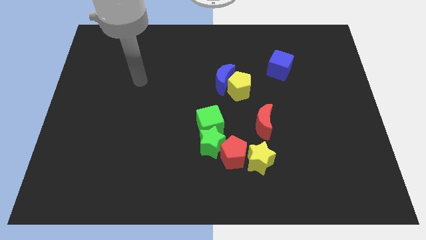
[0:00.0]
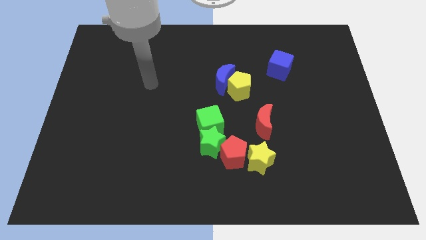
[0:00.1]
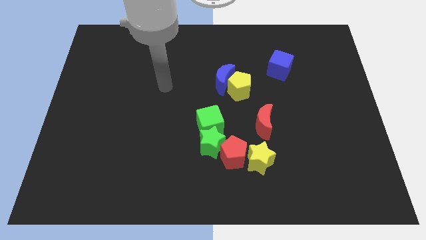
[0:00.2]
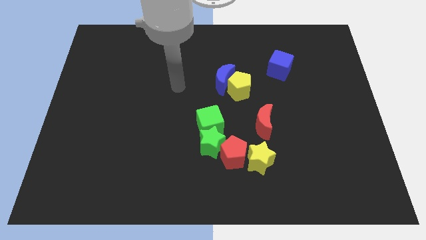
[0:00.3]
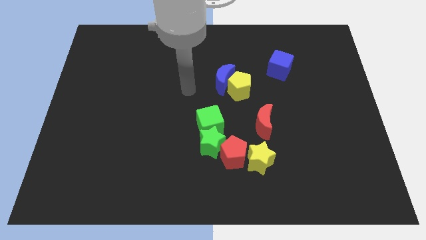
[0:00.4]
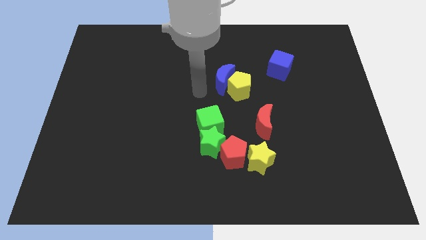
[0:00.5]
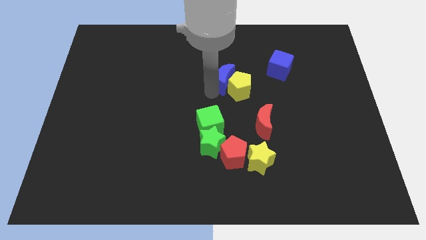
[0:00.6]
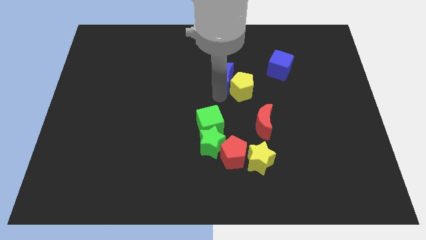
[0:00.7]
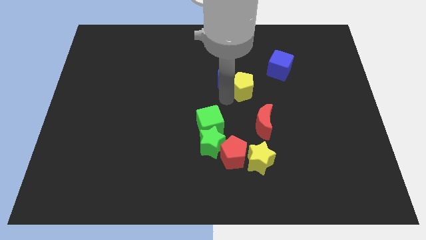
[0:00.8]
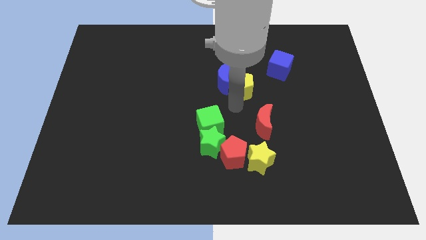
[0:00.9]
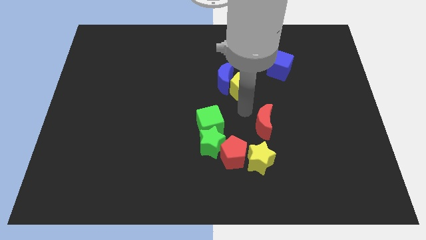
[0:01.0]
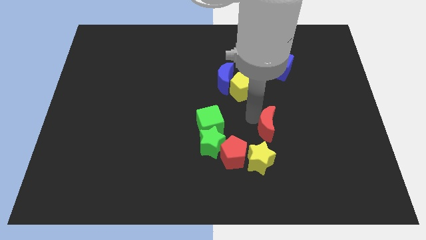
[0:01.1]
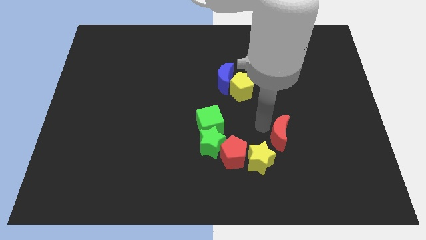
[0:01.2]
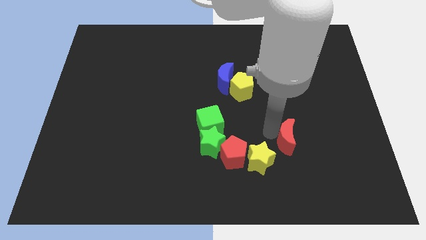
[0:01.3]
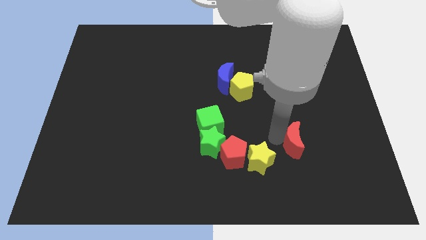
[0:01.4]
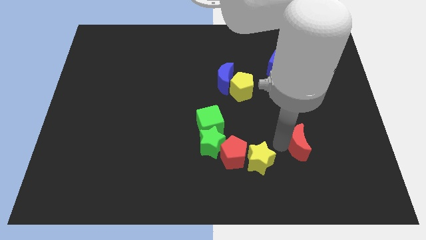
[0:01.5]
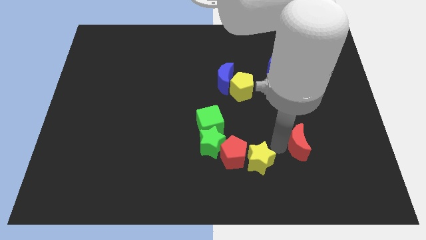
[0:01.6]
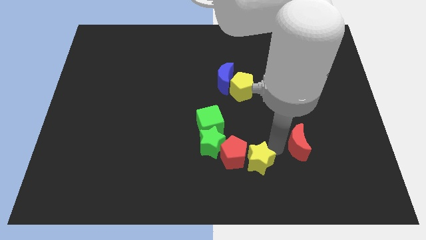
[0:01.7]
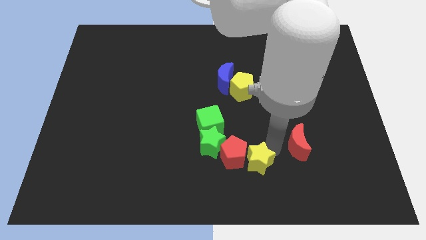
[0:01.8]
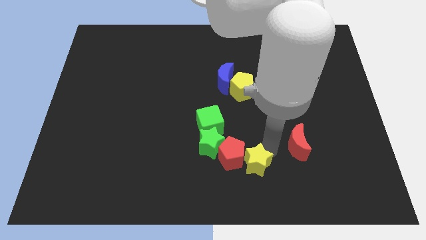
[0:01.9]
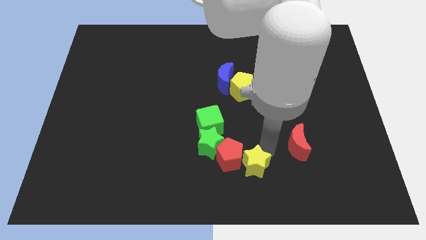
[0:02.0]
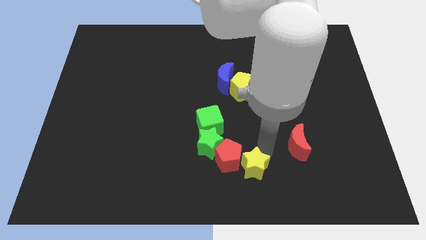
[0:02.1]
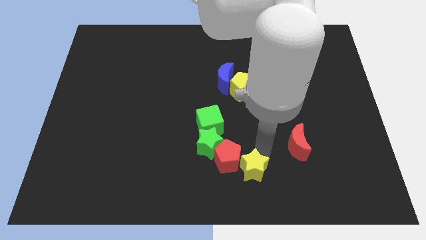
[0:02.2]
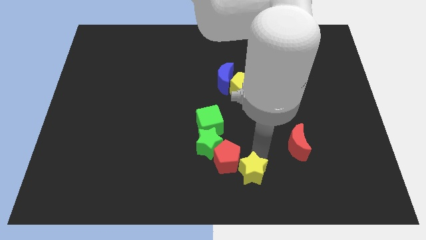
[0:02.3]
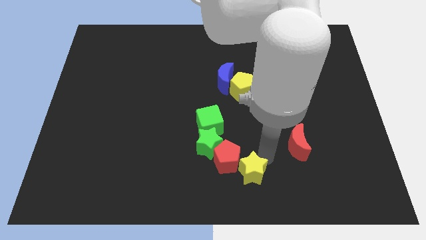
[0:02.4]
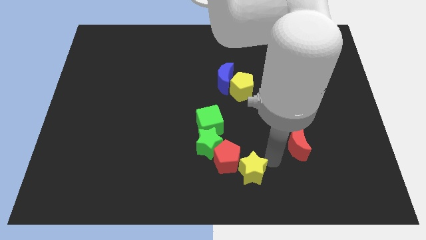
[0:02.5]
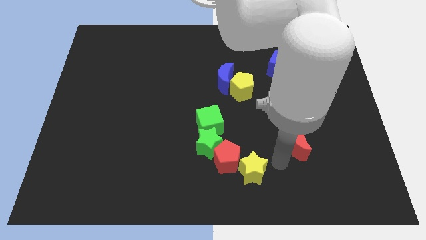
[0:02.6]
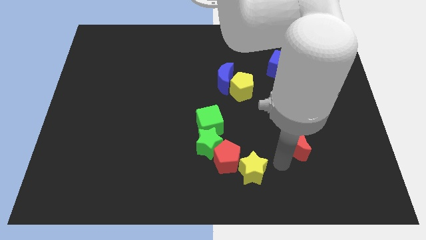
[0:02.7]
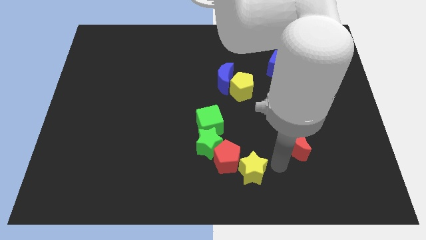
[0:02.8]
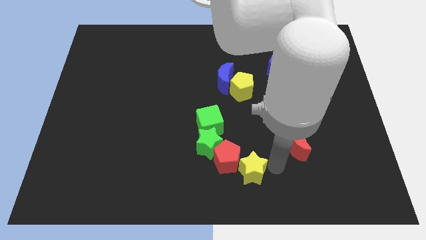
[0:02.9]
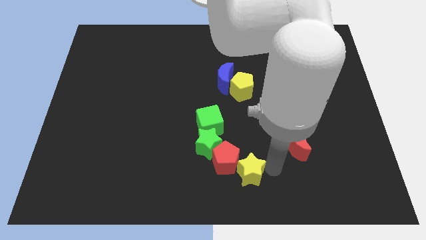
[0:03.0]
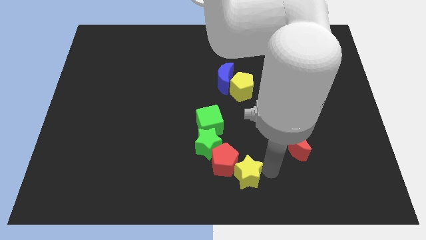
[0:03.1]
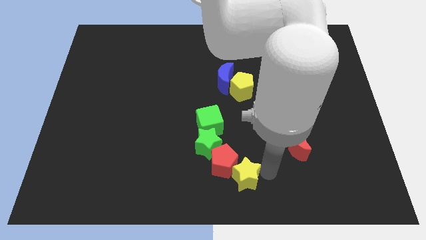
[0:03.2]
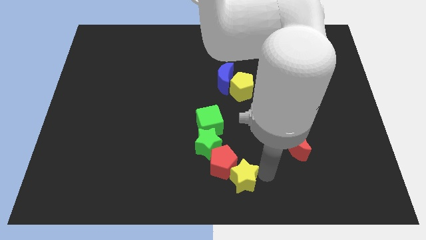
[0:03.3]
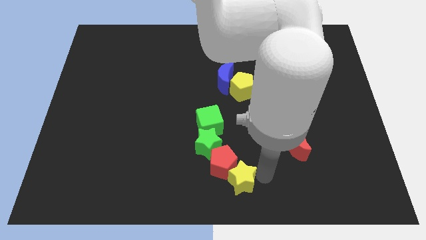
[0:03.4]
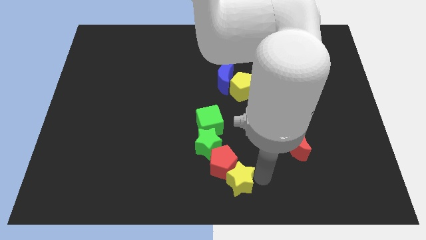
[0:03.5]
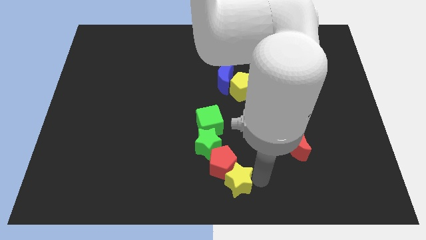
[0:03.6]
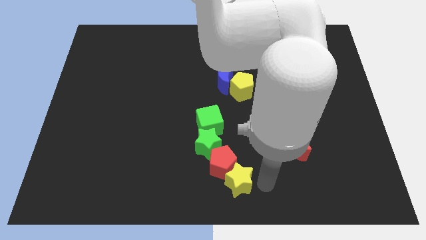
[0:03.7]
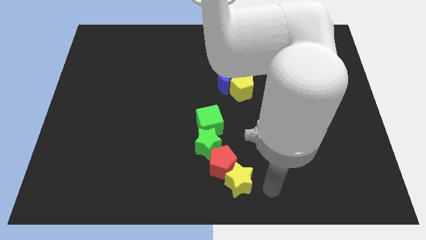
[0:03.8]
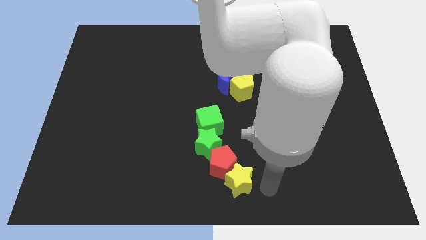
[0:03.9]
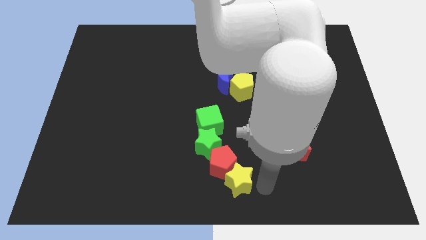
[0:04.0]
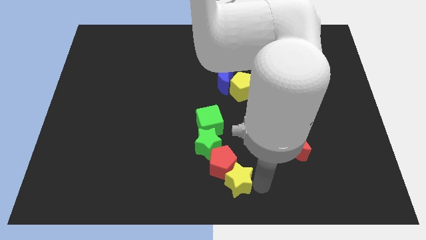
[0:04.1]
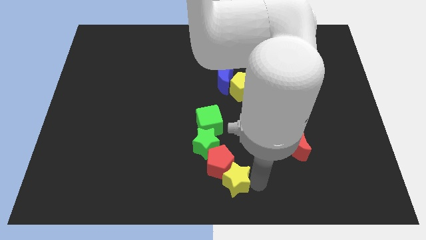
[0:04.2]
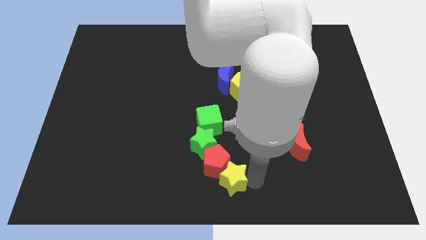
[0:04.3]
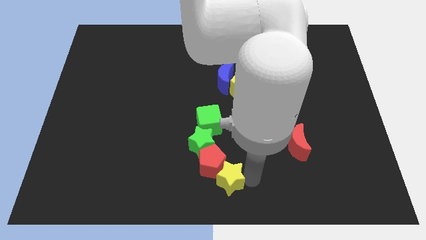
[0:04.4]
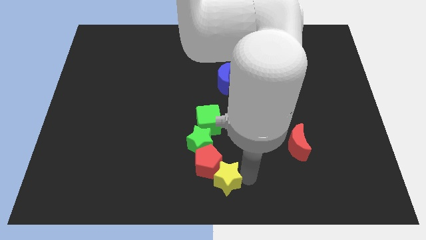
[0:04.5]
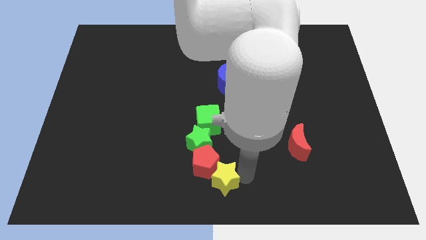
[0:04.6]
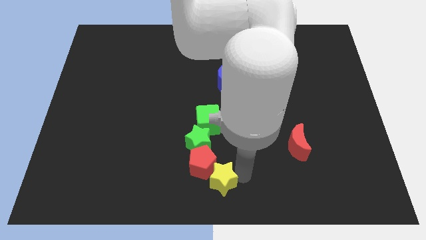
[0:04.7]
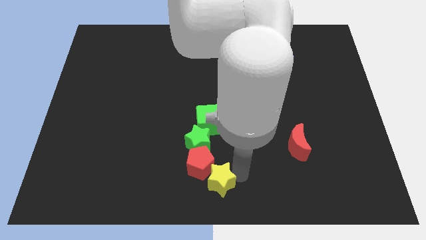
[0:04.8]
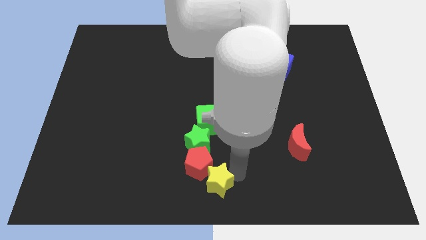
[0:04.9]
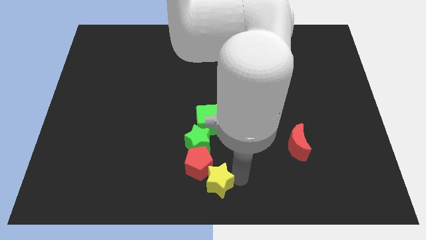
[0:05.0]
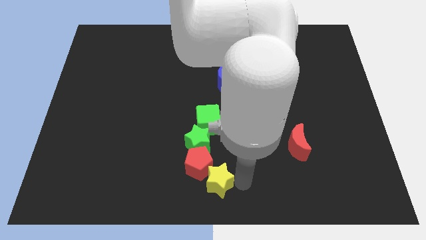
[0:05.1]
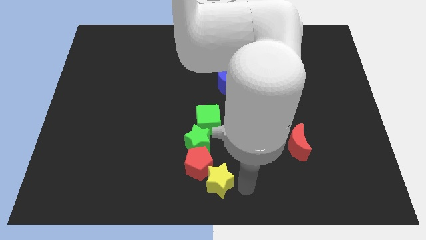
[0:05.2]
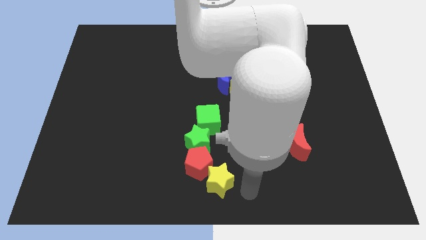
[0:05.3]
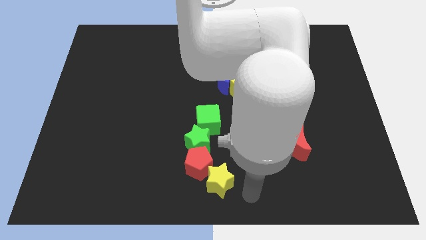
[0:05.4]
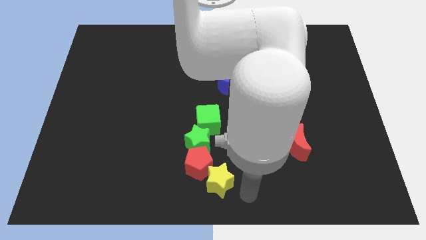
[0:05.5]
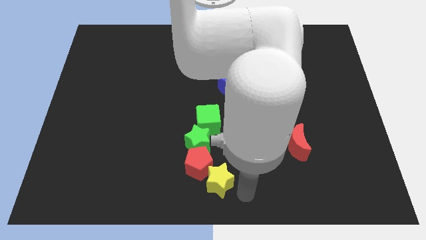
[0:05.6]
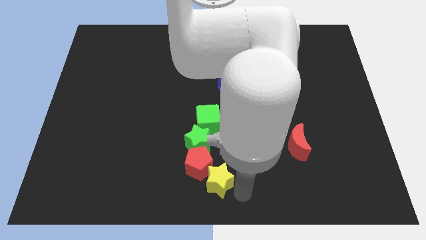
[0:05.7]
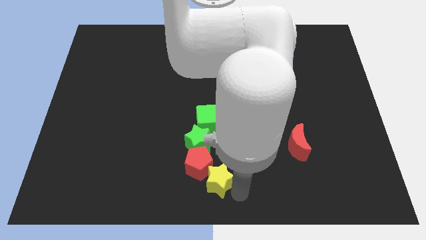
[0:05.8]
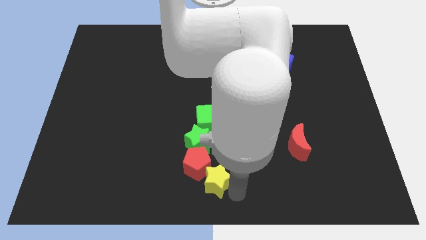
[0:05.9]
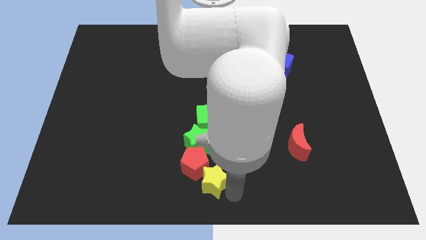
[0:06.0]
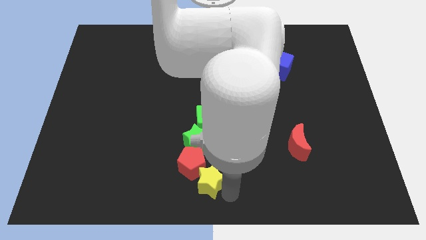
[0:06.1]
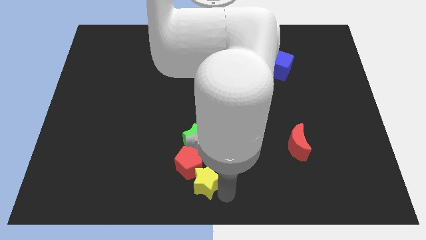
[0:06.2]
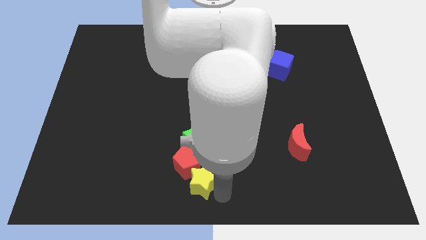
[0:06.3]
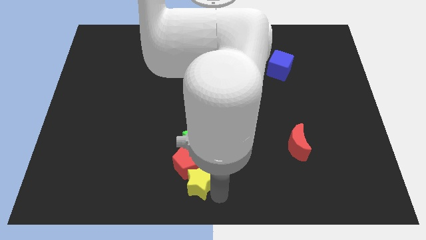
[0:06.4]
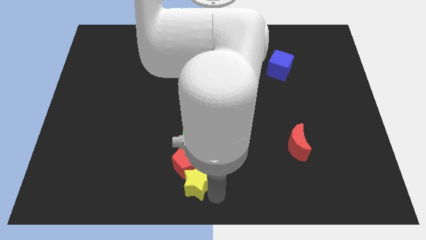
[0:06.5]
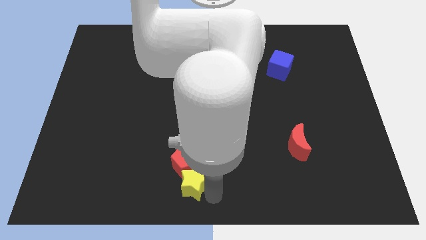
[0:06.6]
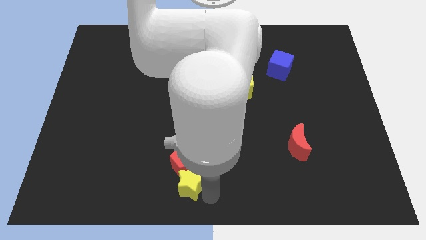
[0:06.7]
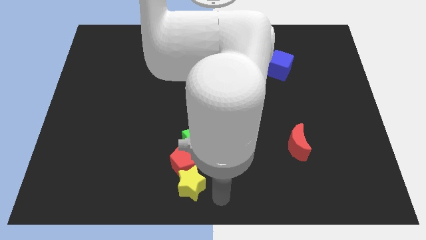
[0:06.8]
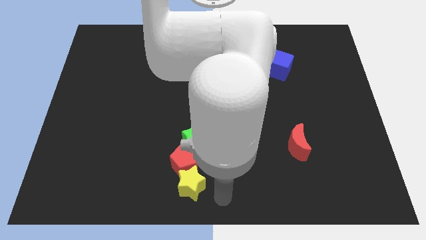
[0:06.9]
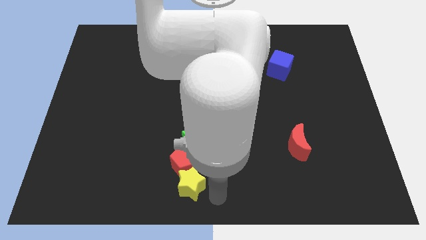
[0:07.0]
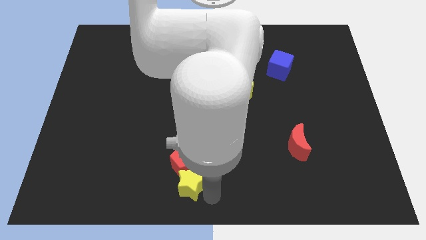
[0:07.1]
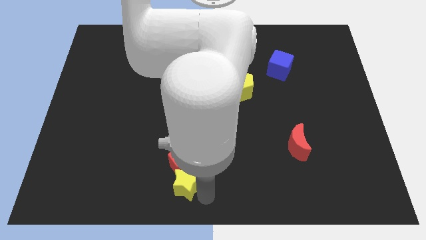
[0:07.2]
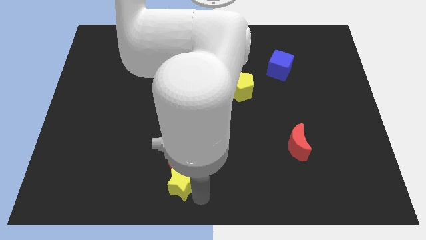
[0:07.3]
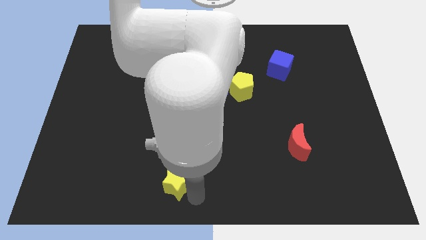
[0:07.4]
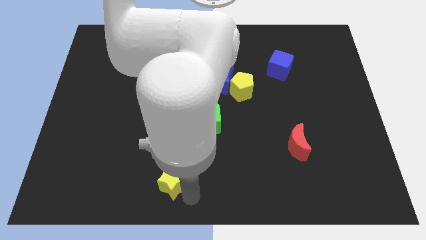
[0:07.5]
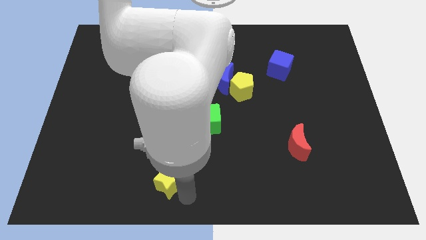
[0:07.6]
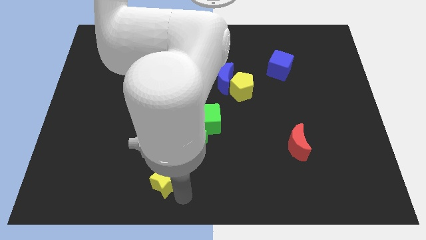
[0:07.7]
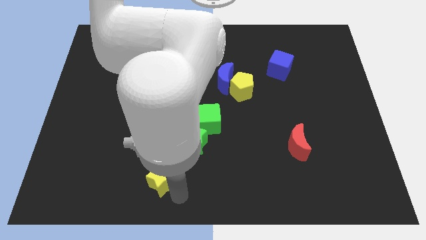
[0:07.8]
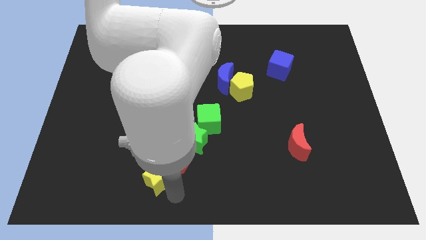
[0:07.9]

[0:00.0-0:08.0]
push the yellow star left

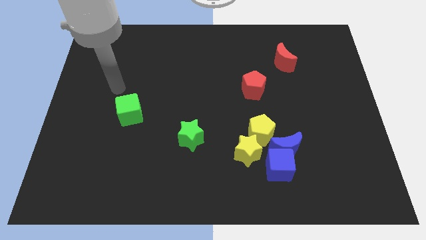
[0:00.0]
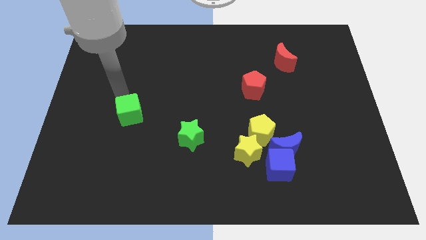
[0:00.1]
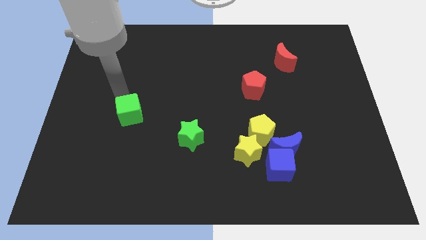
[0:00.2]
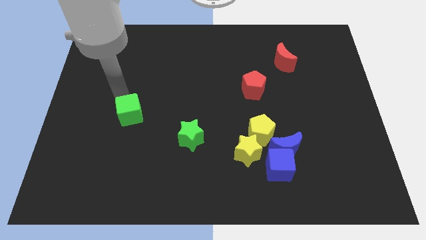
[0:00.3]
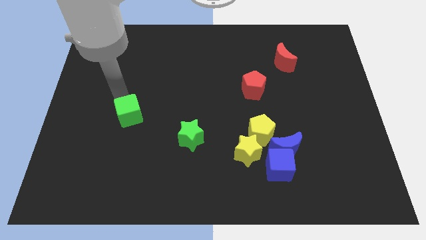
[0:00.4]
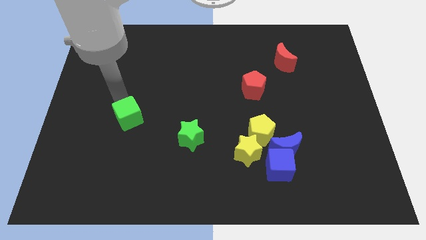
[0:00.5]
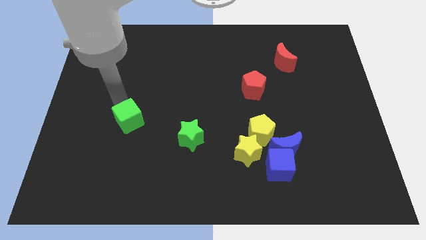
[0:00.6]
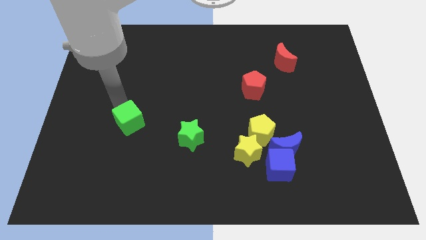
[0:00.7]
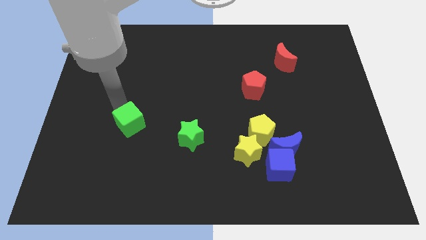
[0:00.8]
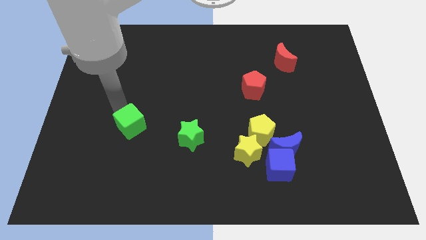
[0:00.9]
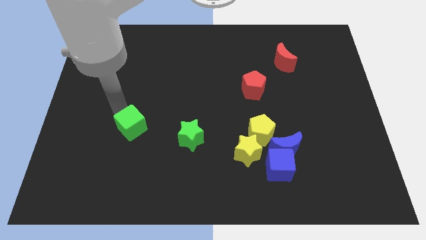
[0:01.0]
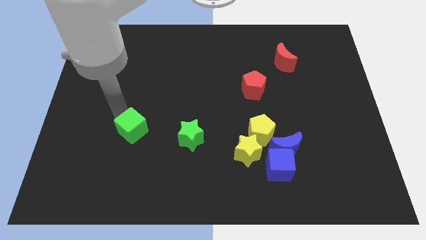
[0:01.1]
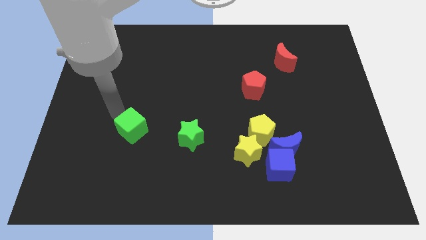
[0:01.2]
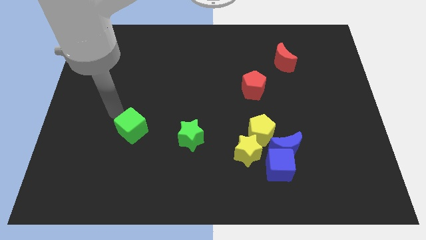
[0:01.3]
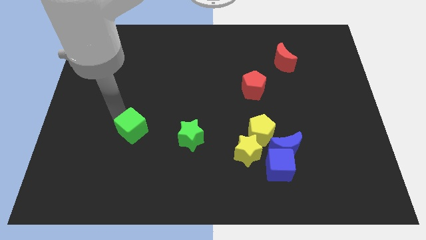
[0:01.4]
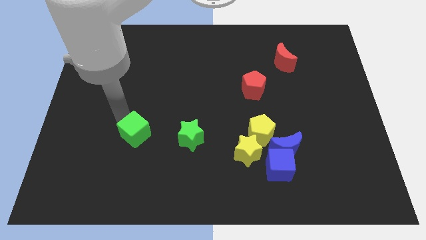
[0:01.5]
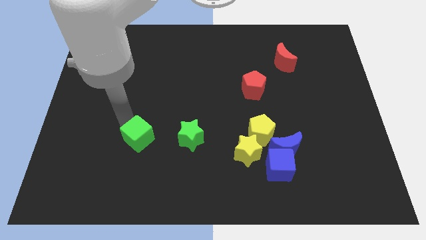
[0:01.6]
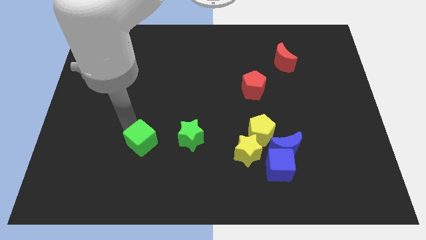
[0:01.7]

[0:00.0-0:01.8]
move the green cube downwards and to the right somewhat
